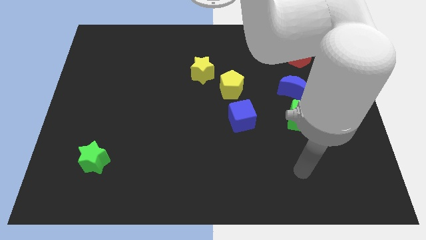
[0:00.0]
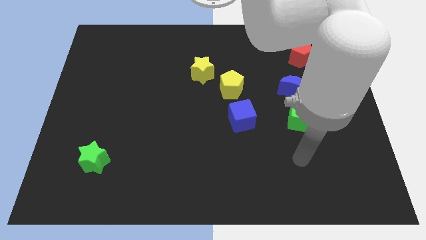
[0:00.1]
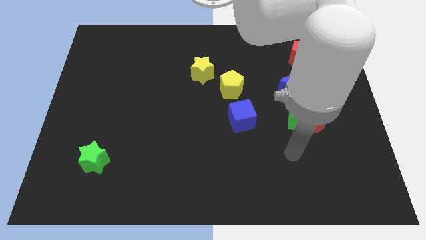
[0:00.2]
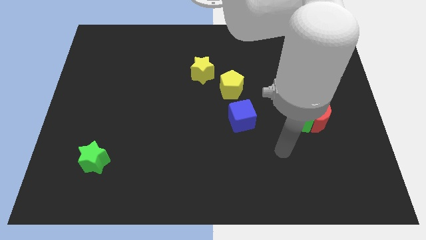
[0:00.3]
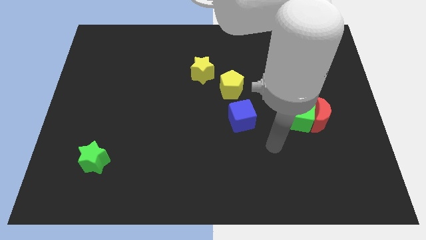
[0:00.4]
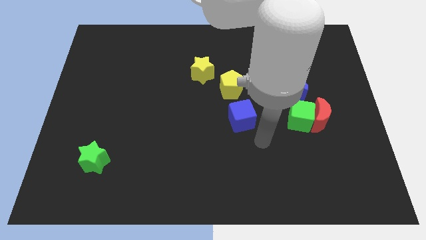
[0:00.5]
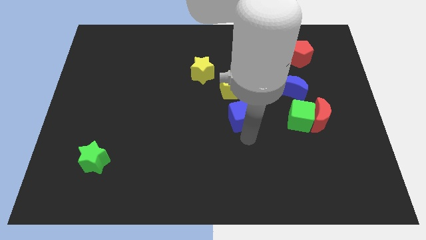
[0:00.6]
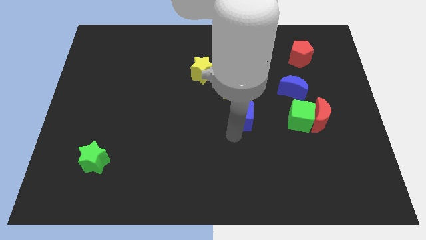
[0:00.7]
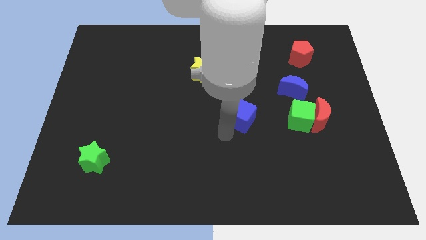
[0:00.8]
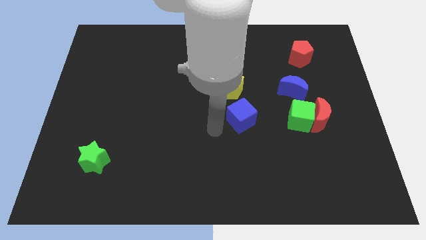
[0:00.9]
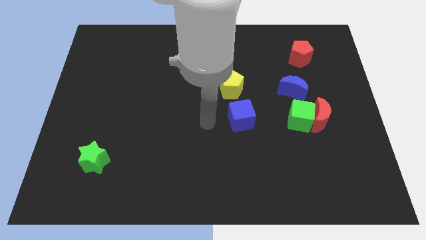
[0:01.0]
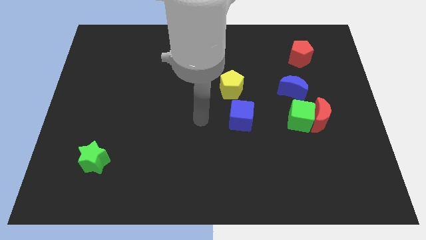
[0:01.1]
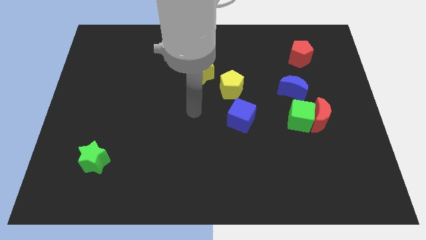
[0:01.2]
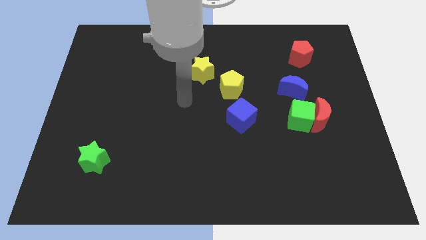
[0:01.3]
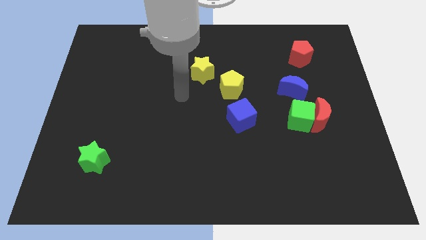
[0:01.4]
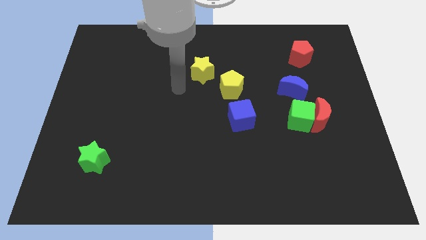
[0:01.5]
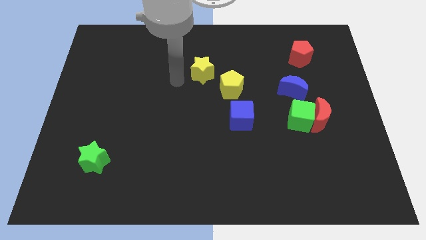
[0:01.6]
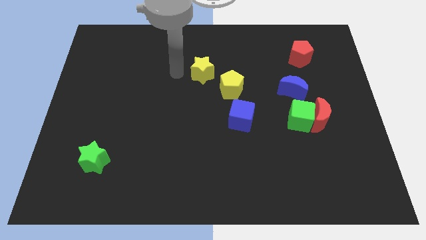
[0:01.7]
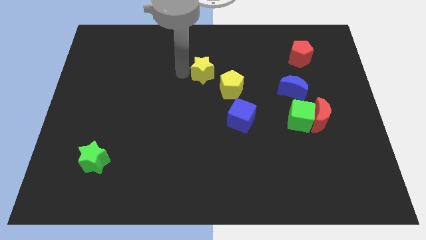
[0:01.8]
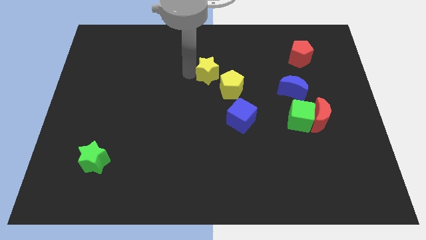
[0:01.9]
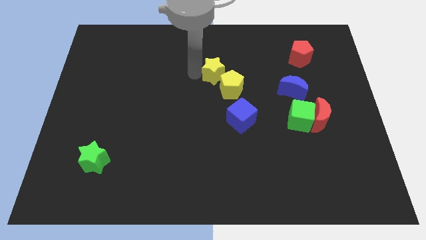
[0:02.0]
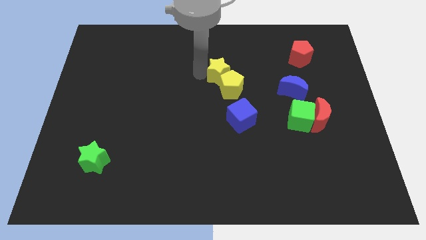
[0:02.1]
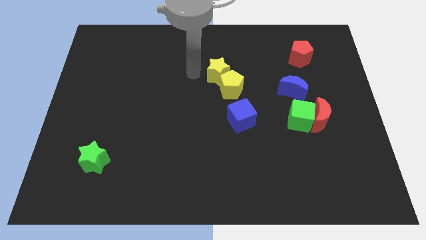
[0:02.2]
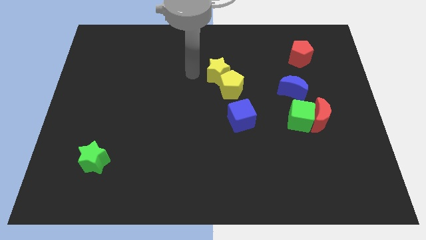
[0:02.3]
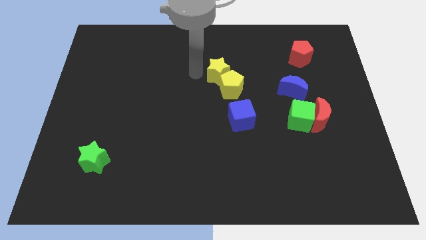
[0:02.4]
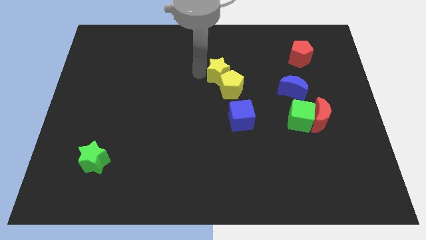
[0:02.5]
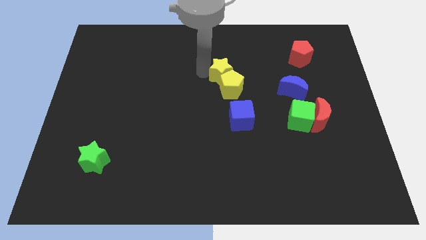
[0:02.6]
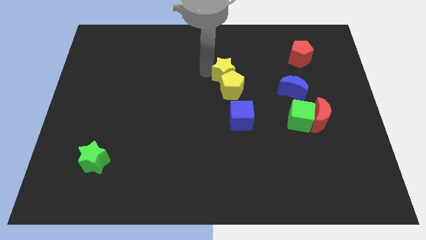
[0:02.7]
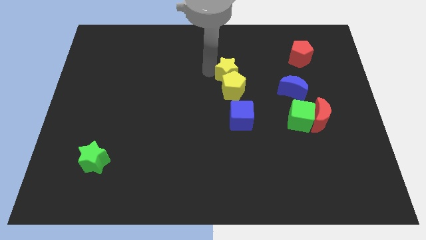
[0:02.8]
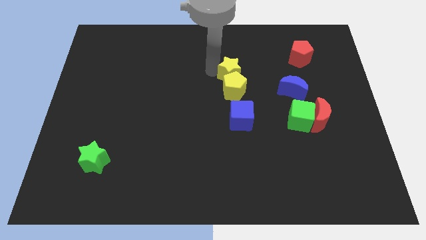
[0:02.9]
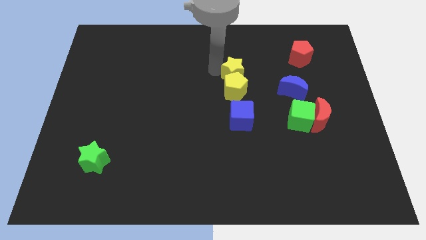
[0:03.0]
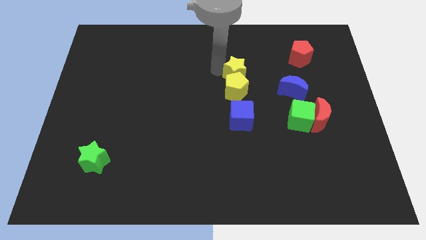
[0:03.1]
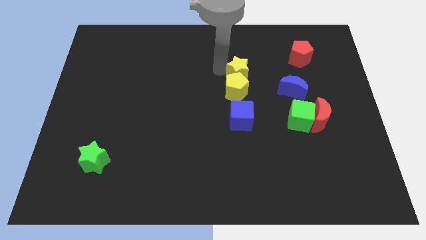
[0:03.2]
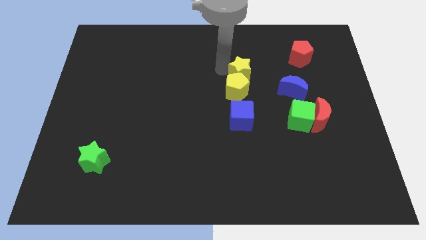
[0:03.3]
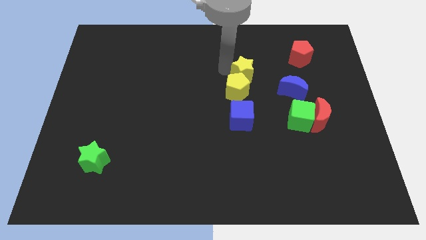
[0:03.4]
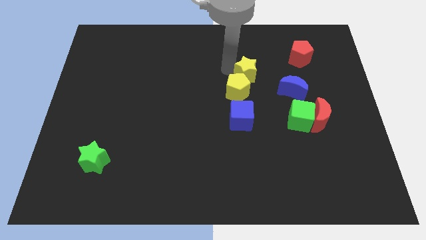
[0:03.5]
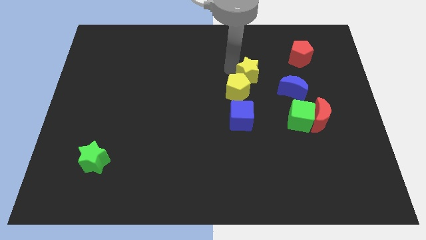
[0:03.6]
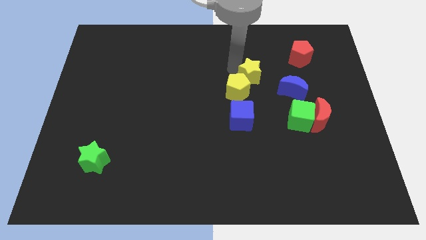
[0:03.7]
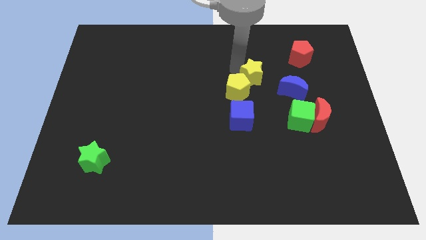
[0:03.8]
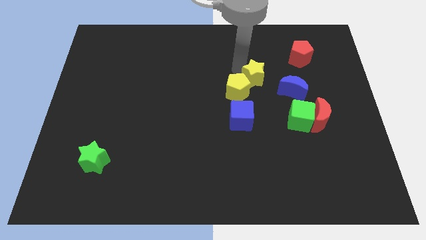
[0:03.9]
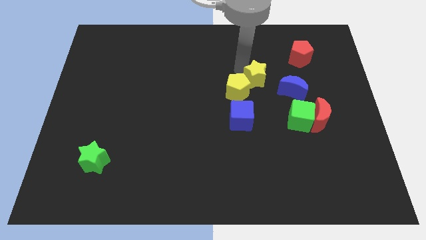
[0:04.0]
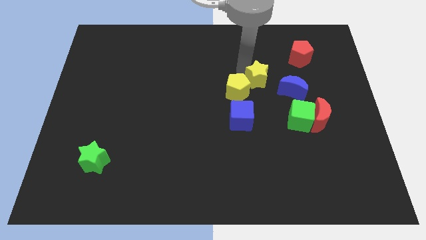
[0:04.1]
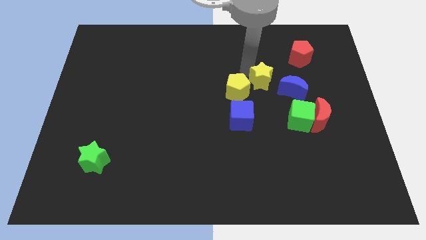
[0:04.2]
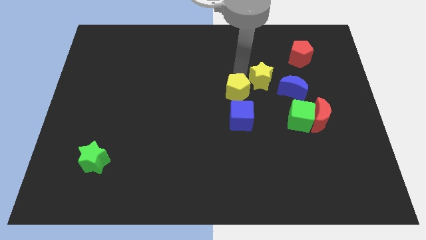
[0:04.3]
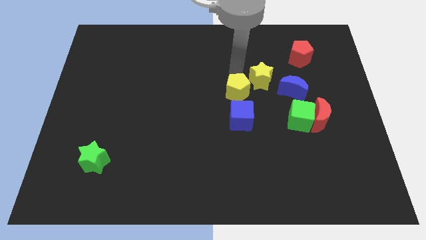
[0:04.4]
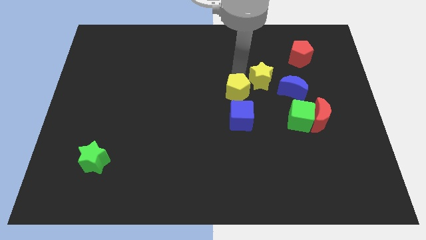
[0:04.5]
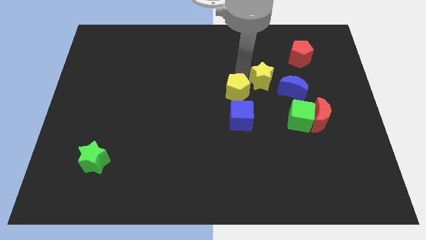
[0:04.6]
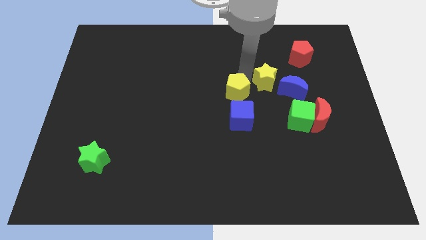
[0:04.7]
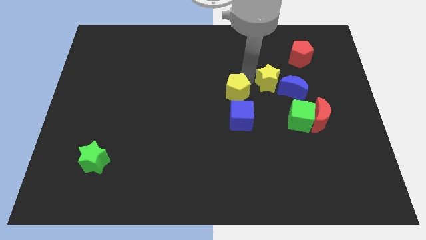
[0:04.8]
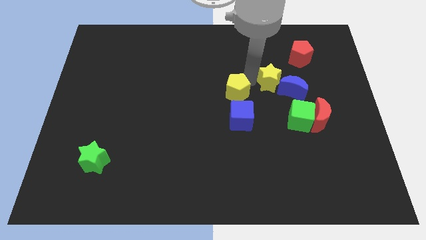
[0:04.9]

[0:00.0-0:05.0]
move the yellow star towards the blue moon

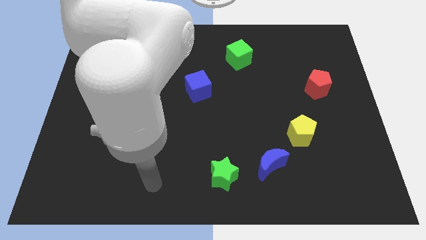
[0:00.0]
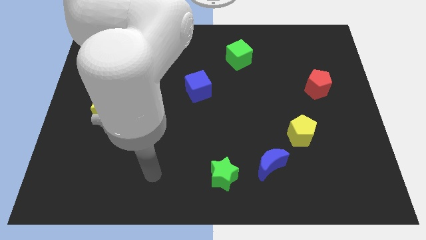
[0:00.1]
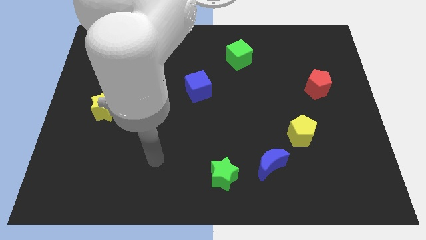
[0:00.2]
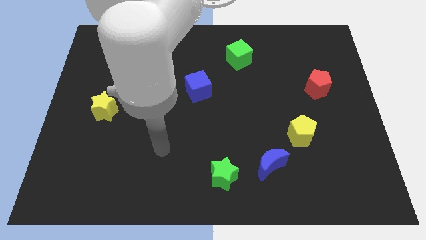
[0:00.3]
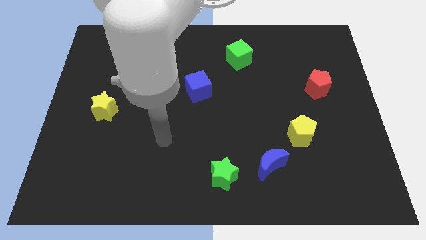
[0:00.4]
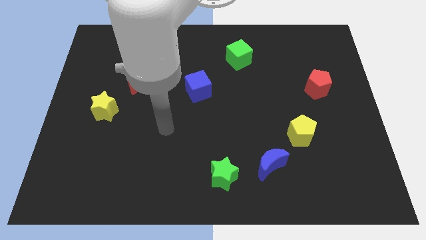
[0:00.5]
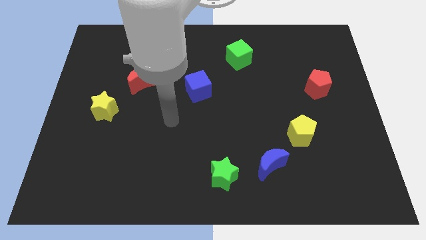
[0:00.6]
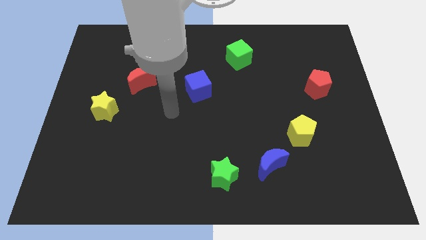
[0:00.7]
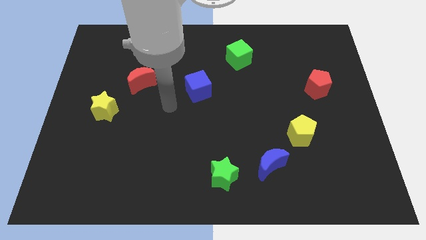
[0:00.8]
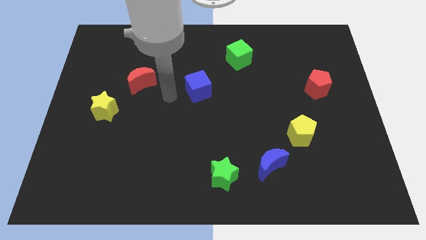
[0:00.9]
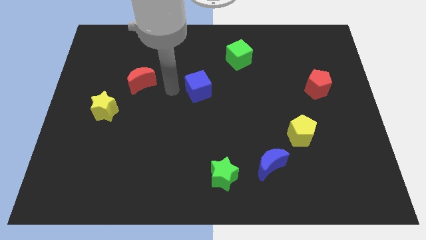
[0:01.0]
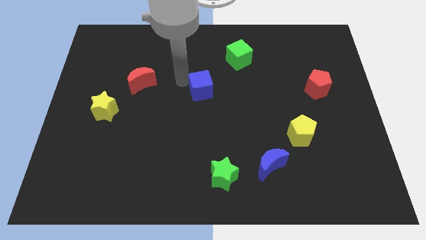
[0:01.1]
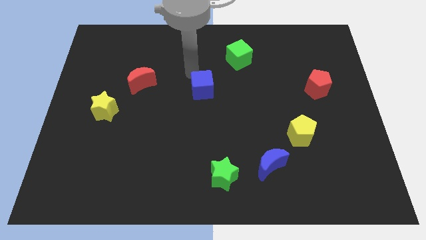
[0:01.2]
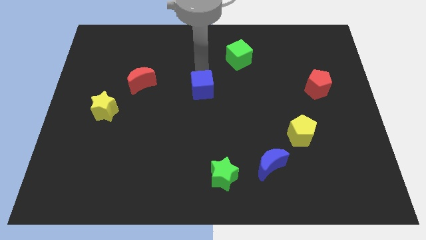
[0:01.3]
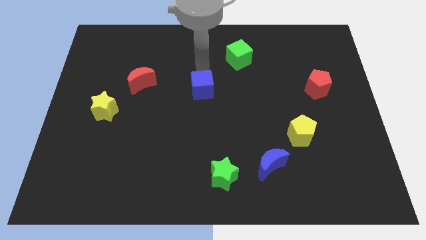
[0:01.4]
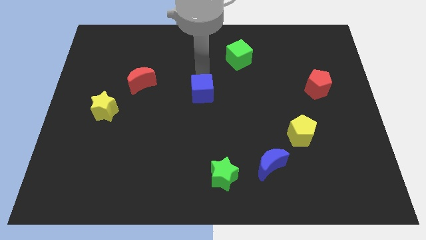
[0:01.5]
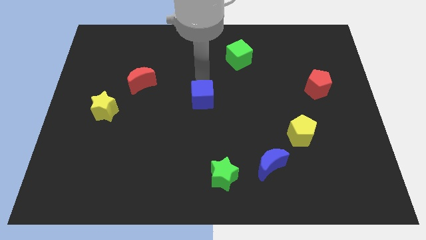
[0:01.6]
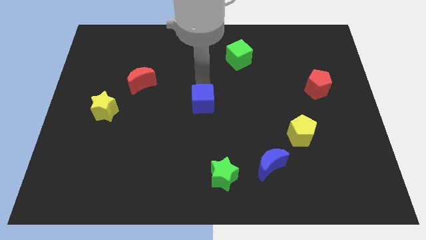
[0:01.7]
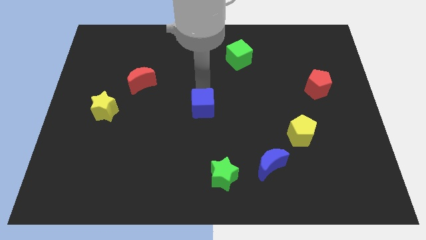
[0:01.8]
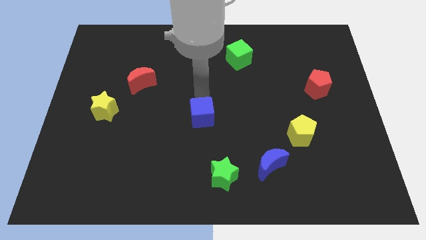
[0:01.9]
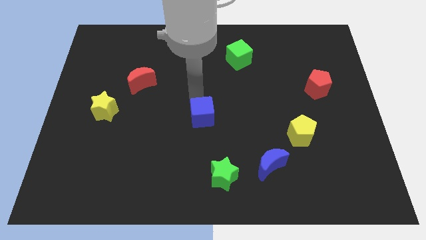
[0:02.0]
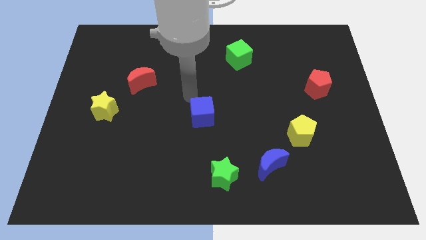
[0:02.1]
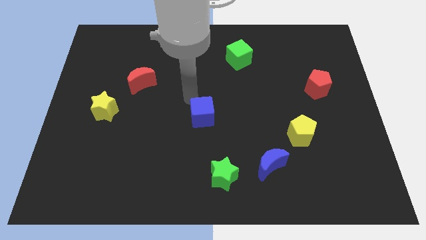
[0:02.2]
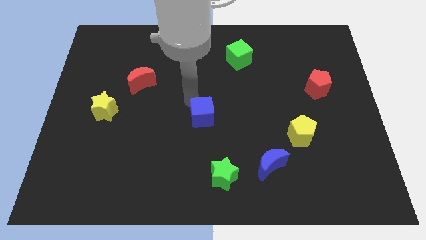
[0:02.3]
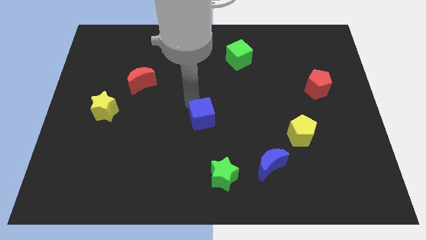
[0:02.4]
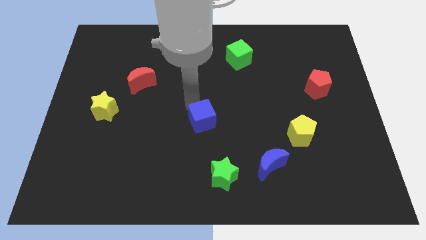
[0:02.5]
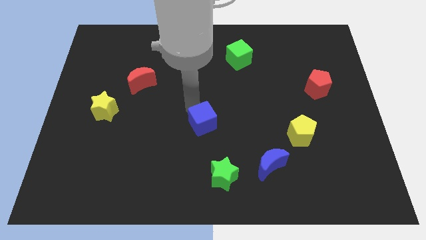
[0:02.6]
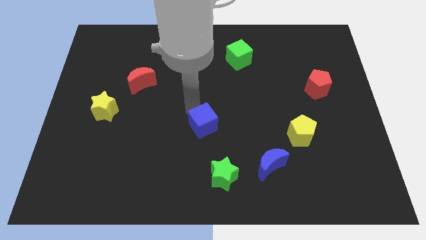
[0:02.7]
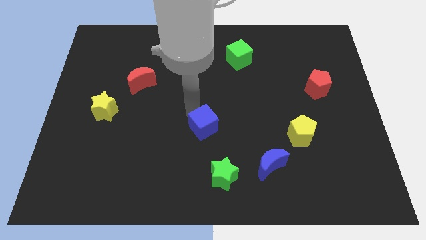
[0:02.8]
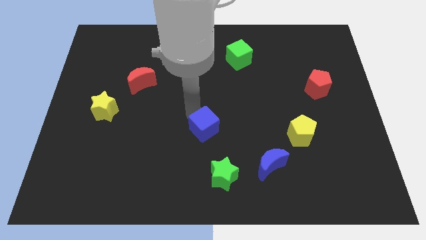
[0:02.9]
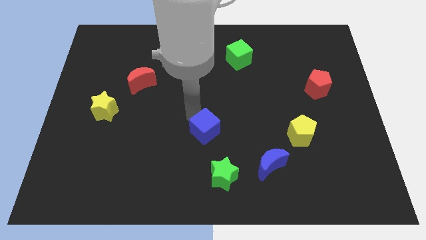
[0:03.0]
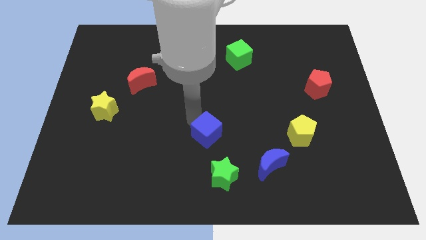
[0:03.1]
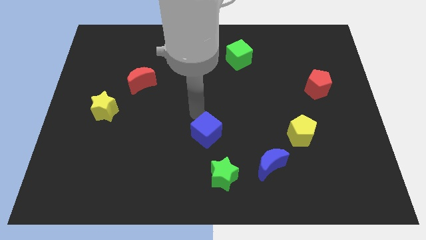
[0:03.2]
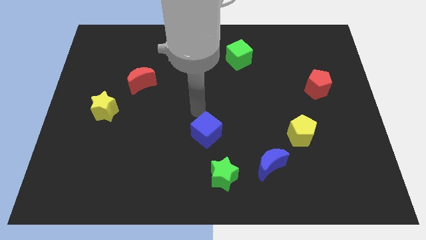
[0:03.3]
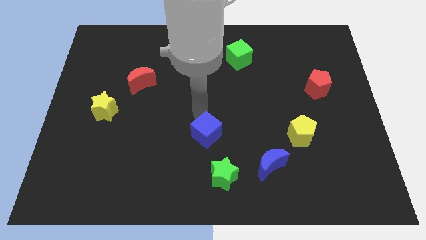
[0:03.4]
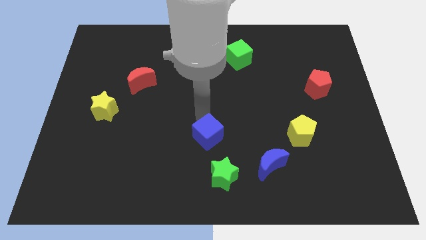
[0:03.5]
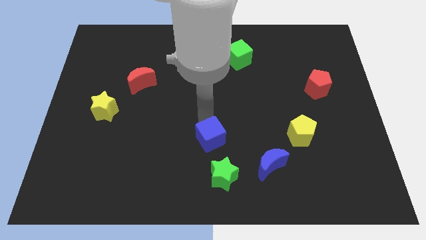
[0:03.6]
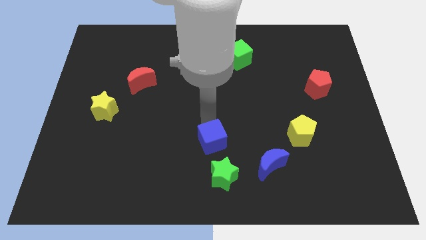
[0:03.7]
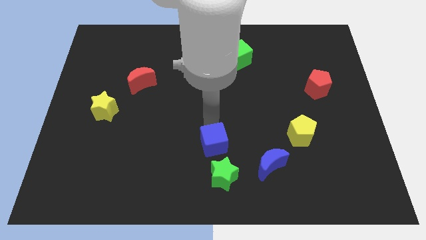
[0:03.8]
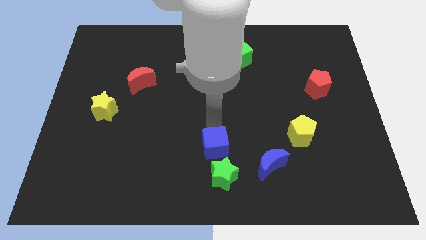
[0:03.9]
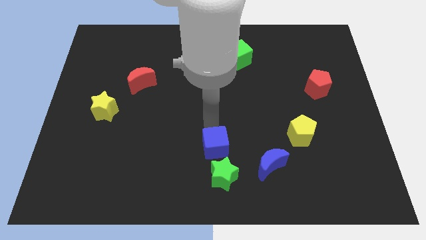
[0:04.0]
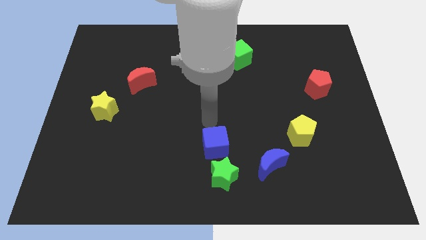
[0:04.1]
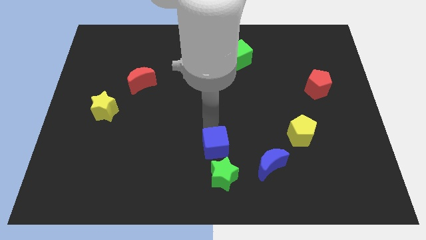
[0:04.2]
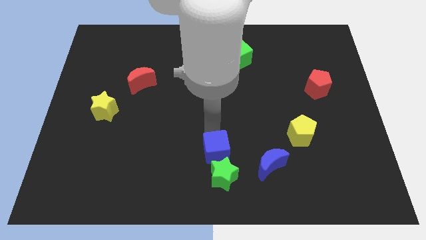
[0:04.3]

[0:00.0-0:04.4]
push the blue cube next to the green star
